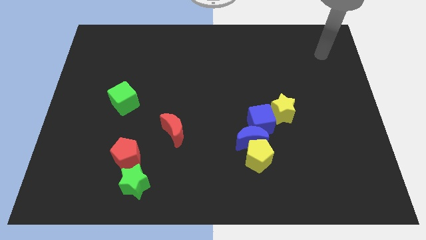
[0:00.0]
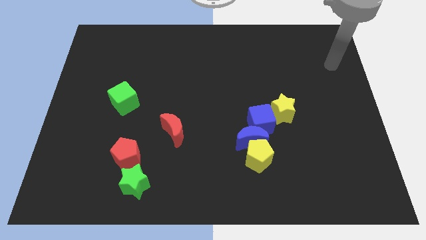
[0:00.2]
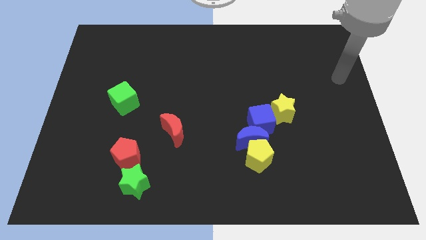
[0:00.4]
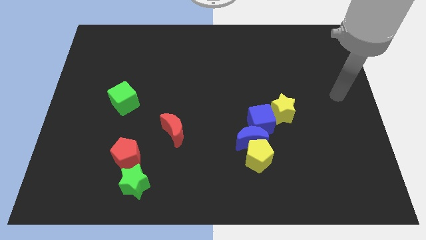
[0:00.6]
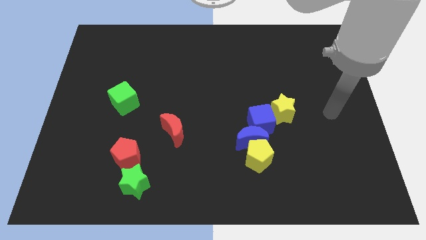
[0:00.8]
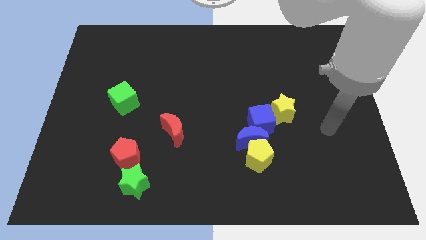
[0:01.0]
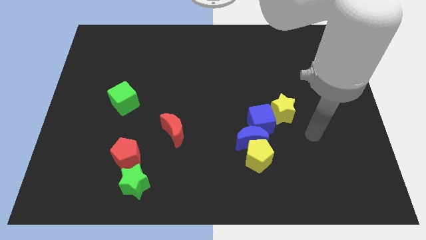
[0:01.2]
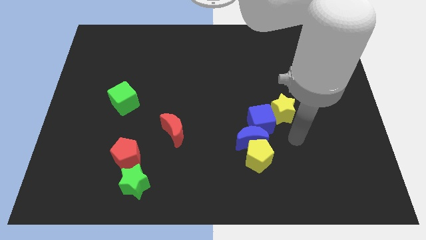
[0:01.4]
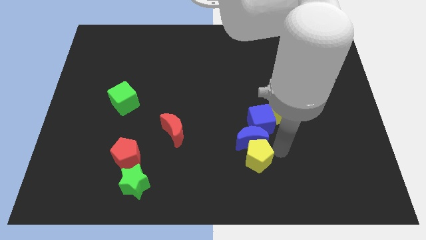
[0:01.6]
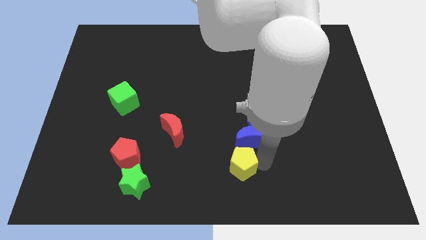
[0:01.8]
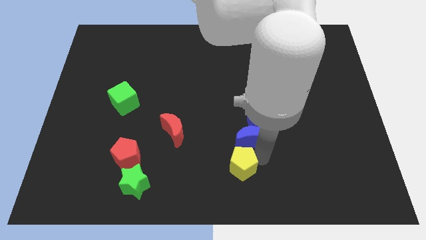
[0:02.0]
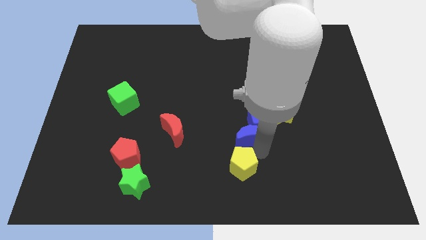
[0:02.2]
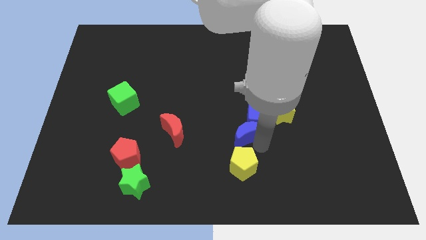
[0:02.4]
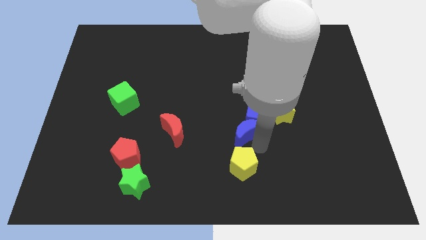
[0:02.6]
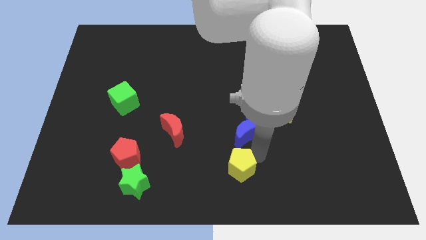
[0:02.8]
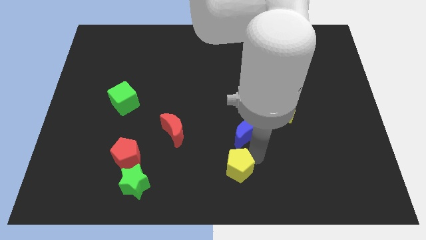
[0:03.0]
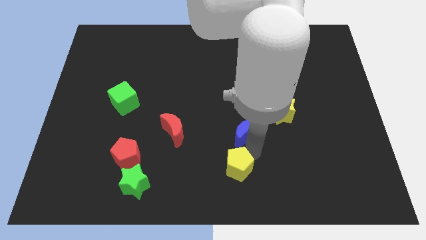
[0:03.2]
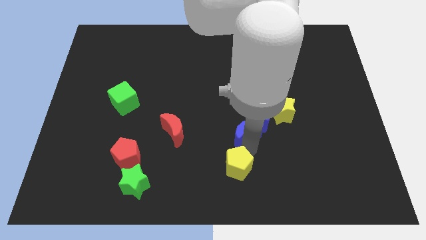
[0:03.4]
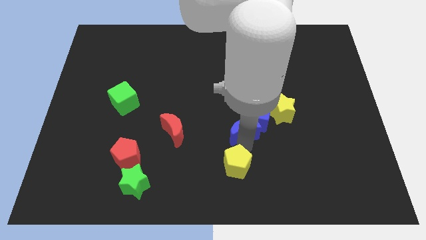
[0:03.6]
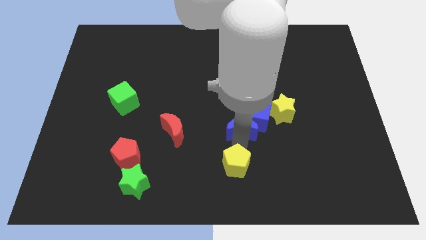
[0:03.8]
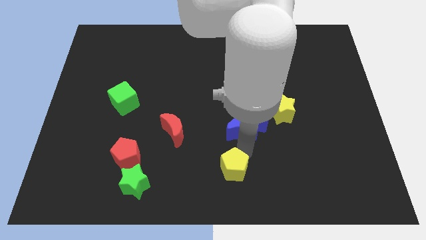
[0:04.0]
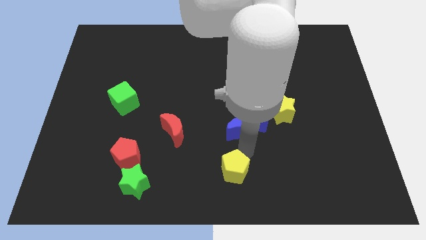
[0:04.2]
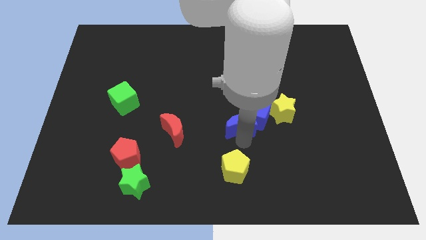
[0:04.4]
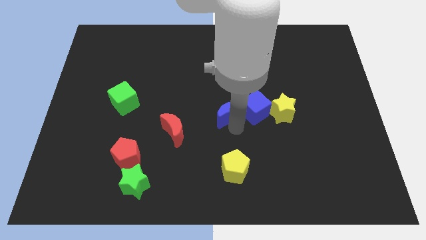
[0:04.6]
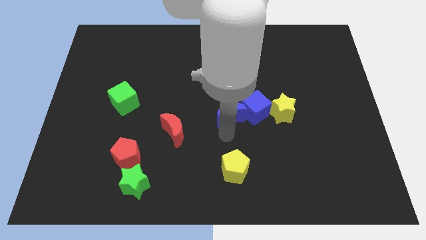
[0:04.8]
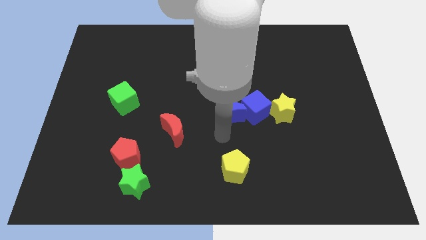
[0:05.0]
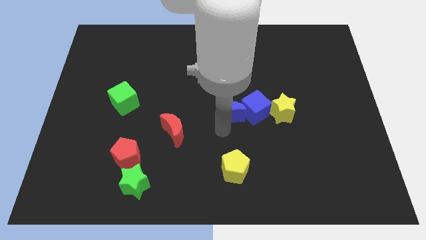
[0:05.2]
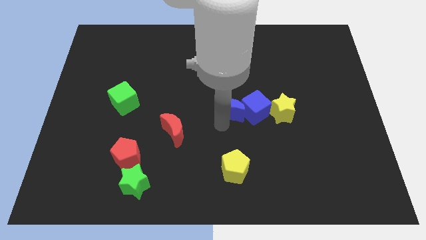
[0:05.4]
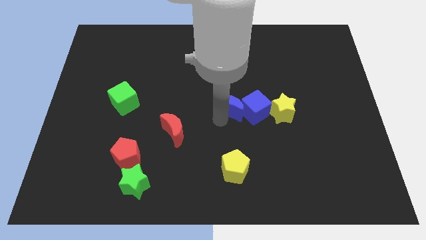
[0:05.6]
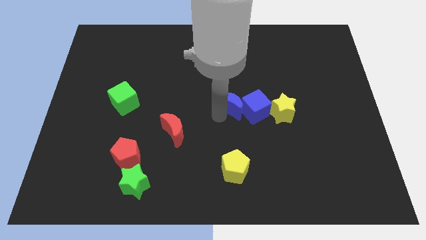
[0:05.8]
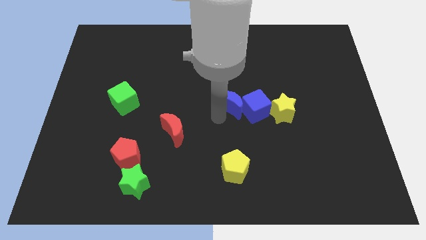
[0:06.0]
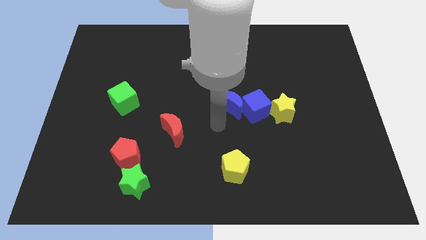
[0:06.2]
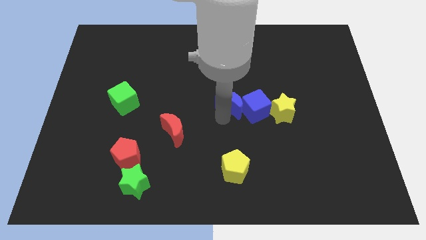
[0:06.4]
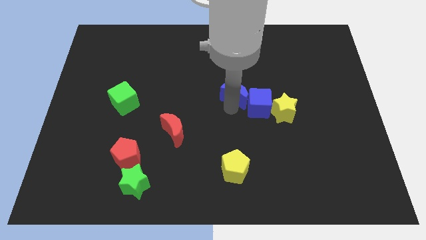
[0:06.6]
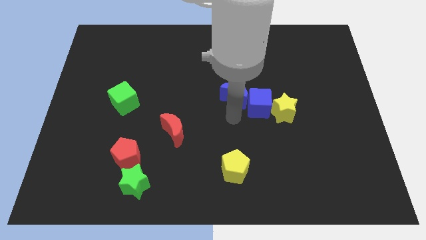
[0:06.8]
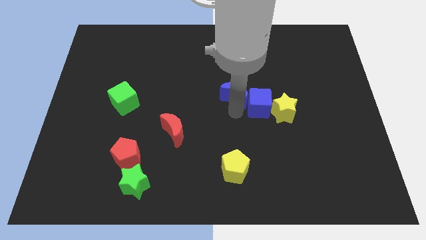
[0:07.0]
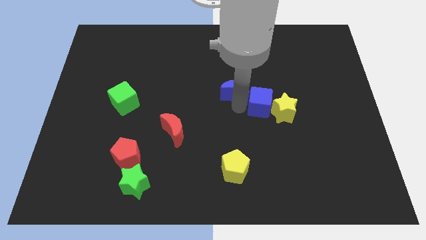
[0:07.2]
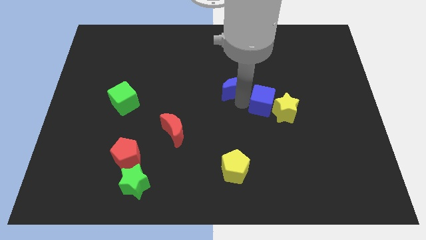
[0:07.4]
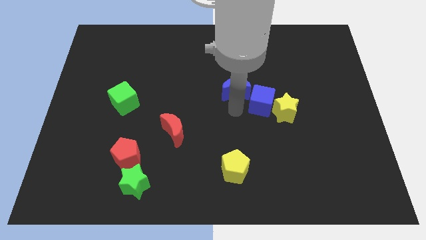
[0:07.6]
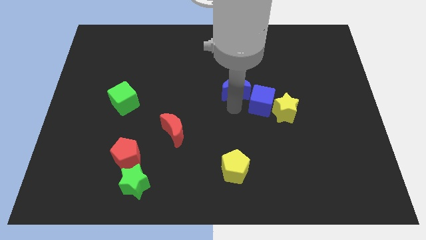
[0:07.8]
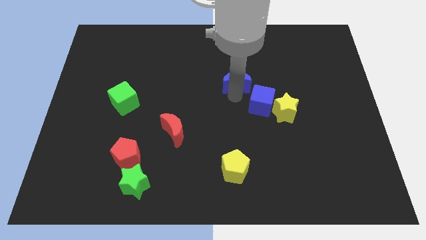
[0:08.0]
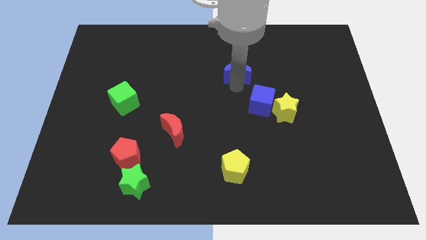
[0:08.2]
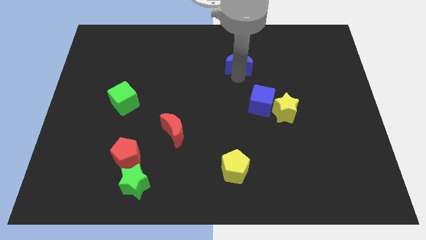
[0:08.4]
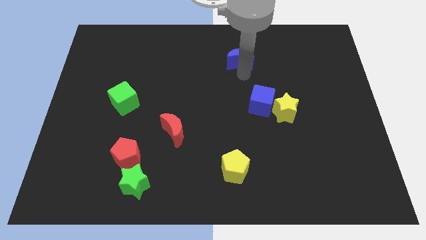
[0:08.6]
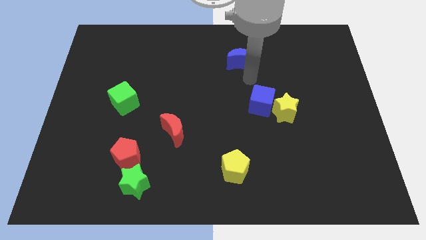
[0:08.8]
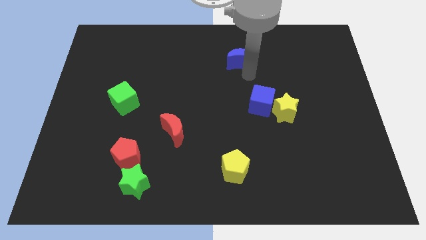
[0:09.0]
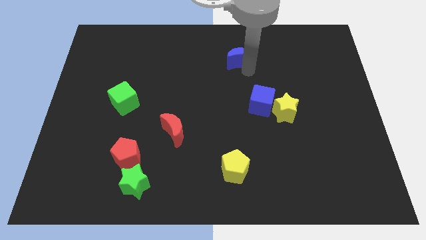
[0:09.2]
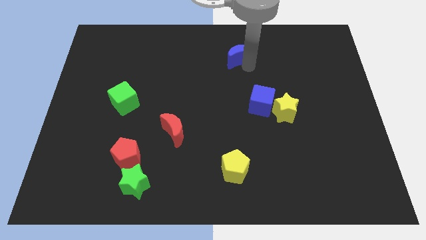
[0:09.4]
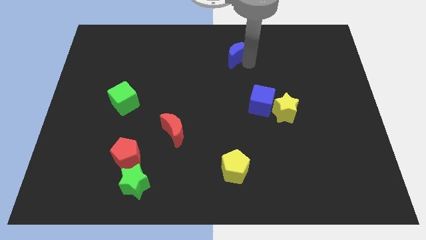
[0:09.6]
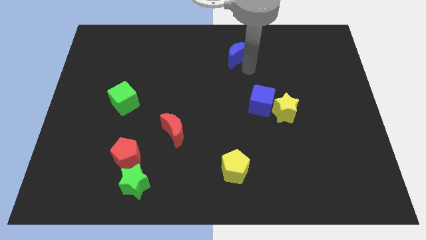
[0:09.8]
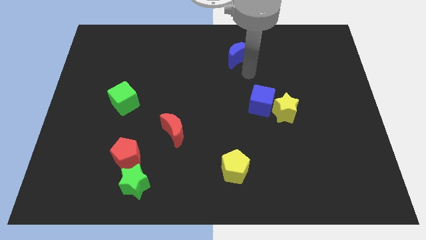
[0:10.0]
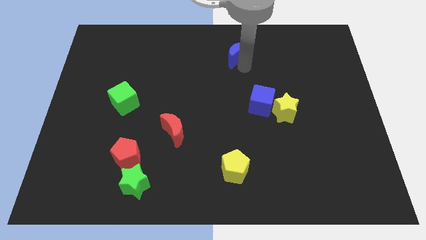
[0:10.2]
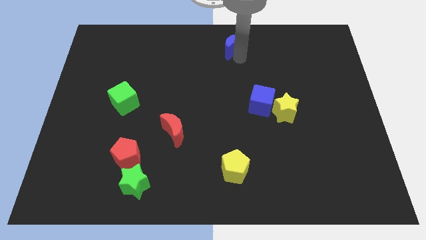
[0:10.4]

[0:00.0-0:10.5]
slide the blue moon to the top side

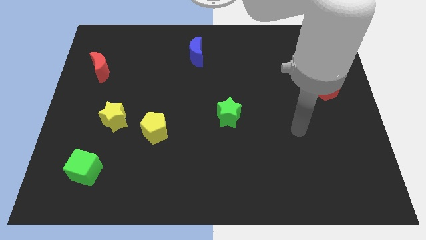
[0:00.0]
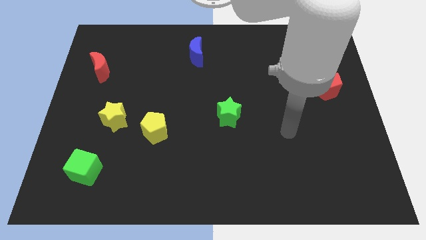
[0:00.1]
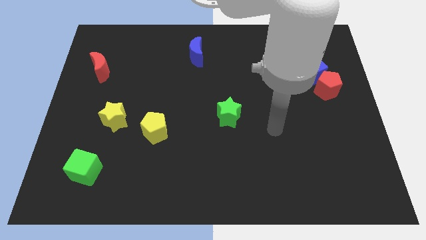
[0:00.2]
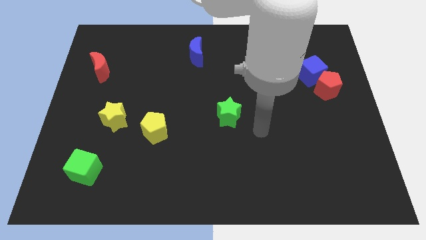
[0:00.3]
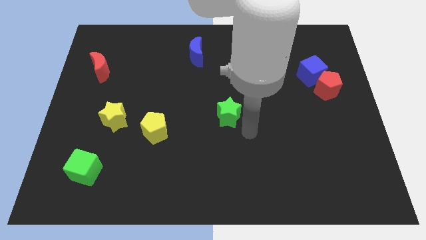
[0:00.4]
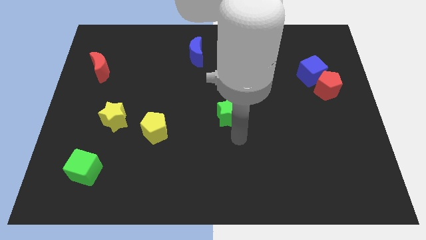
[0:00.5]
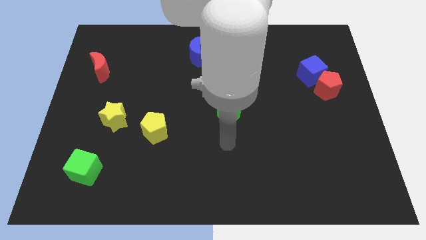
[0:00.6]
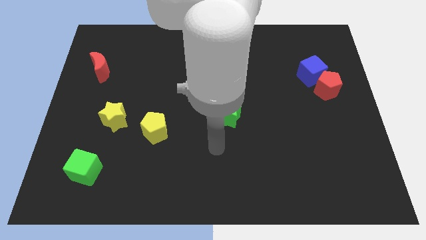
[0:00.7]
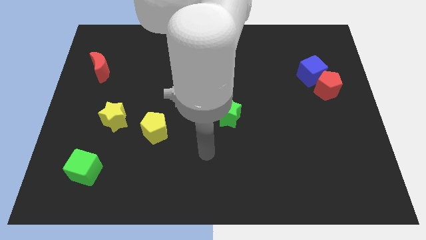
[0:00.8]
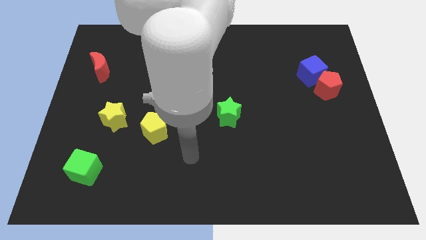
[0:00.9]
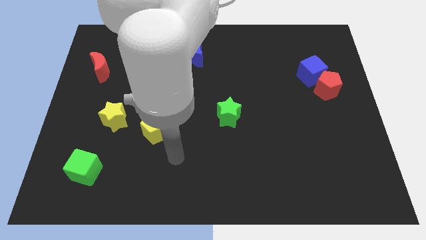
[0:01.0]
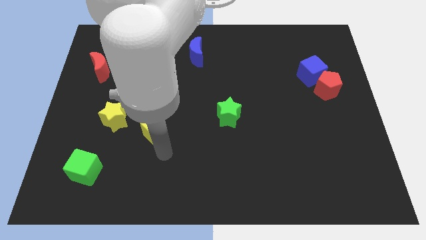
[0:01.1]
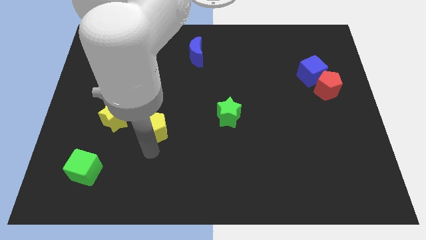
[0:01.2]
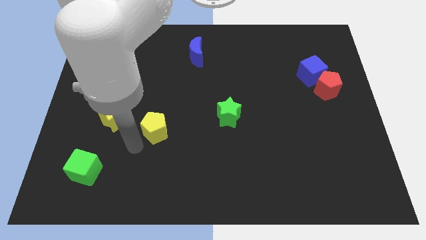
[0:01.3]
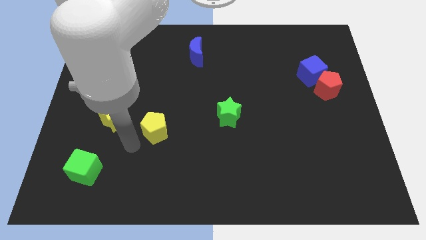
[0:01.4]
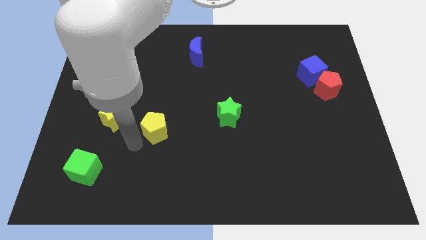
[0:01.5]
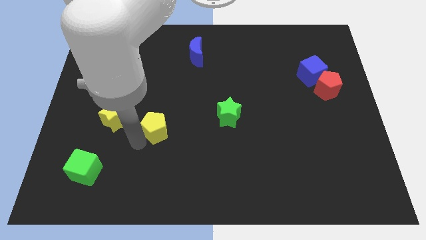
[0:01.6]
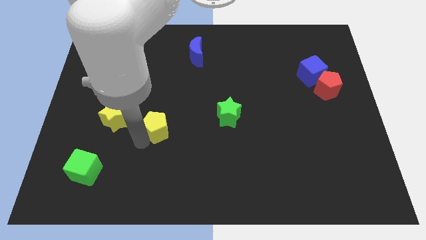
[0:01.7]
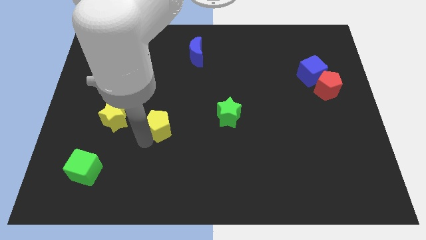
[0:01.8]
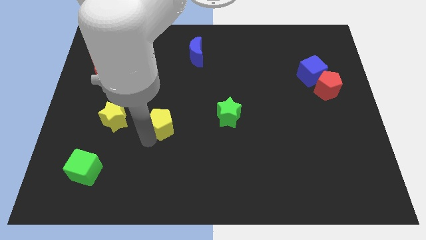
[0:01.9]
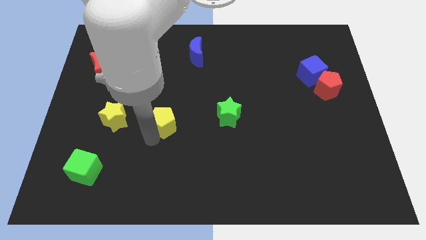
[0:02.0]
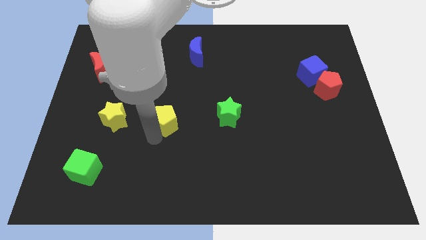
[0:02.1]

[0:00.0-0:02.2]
slide the yellow pentagon to the center
